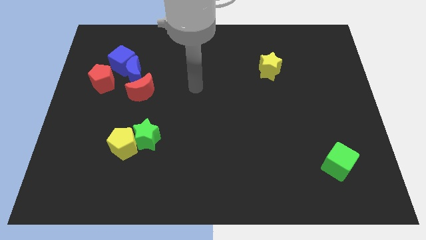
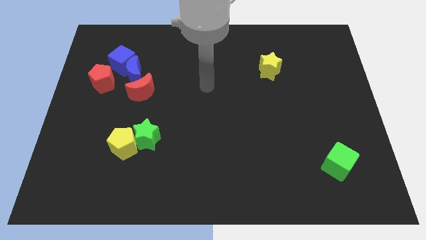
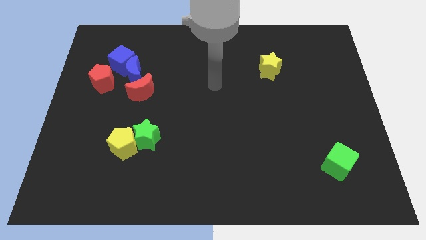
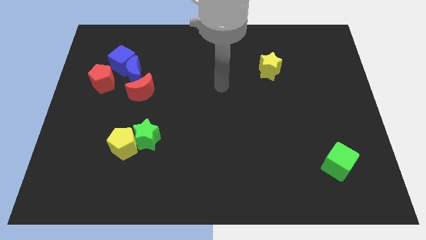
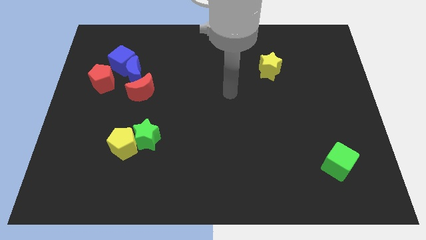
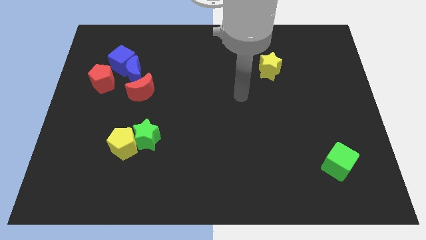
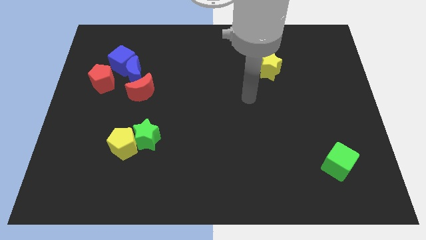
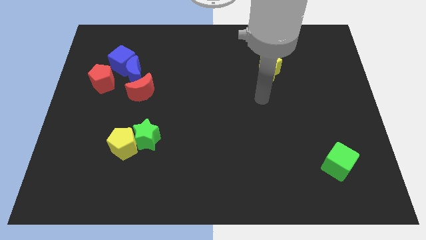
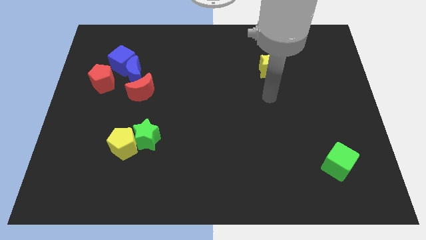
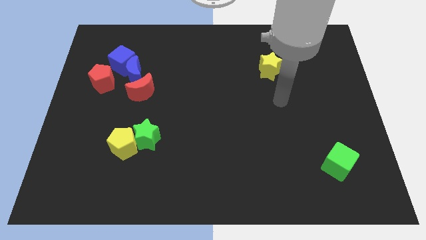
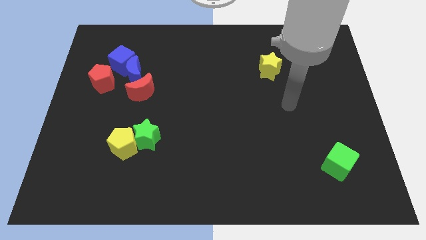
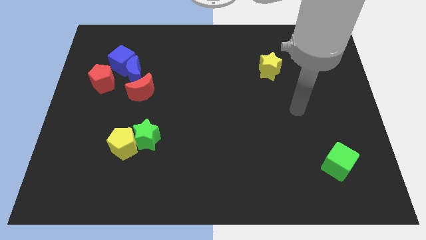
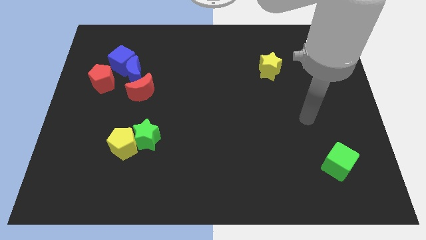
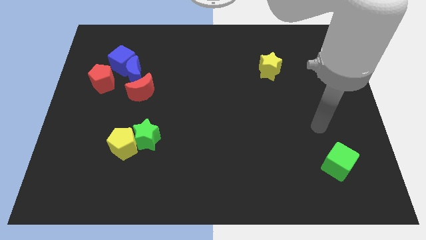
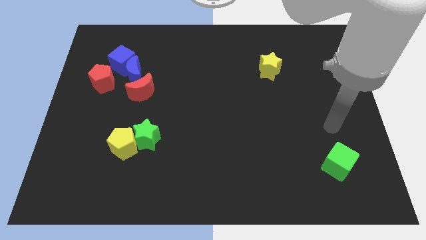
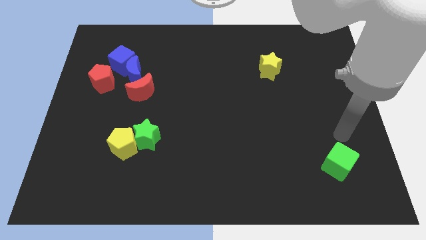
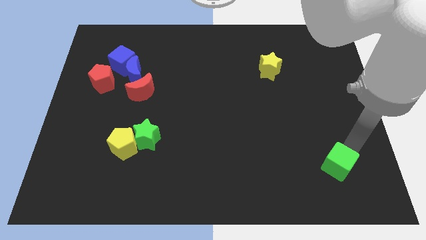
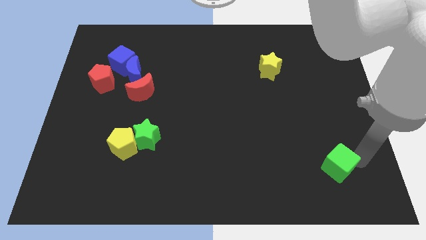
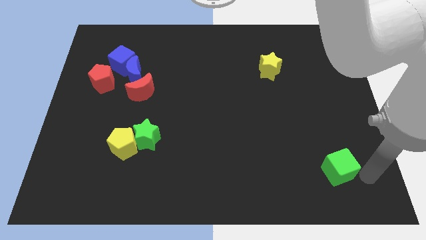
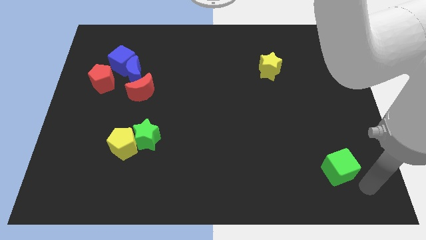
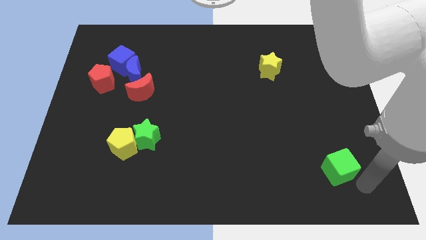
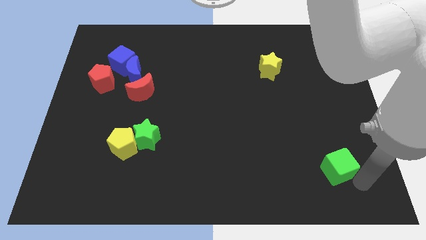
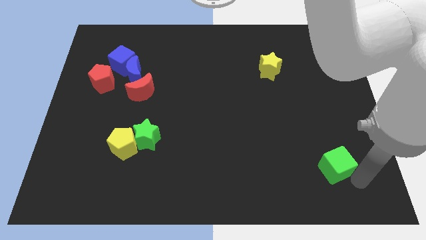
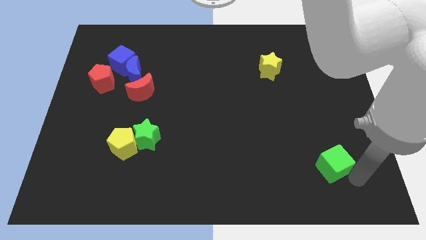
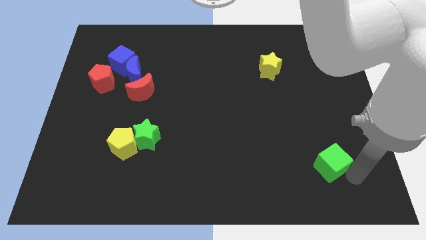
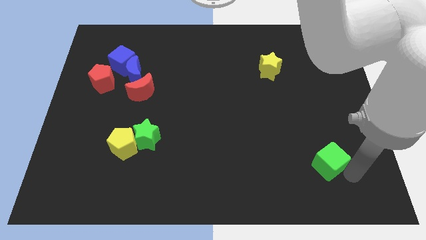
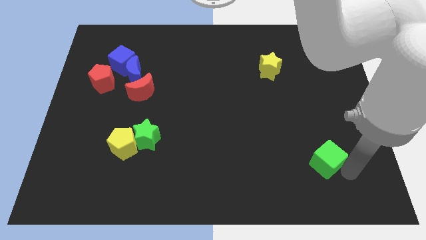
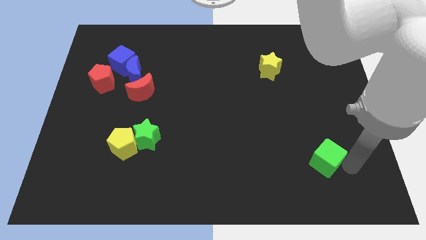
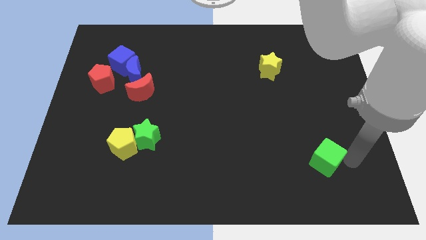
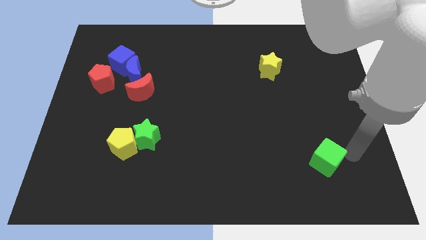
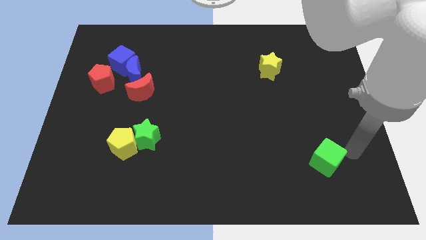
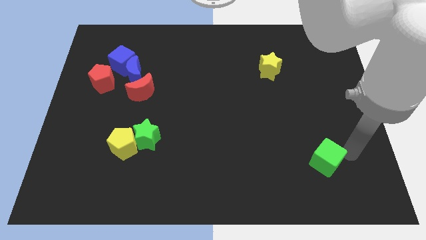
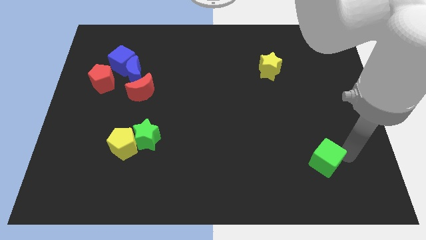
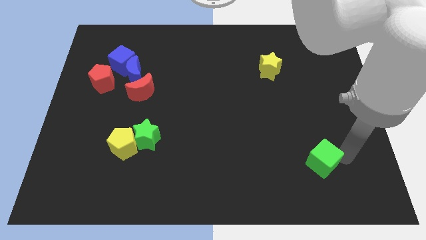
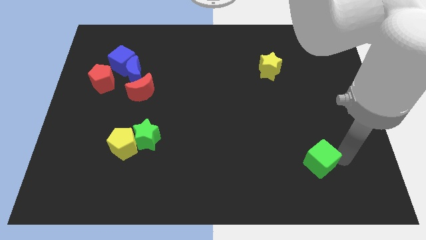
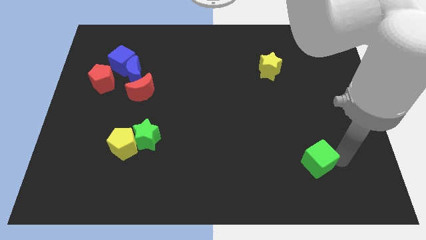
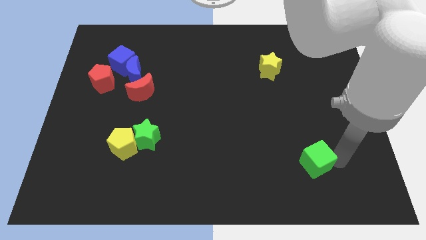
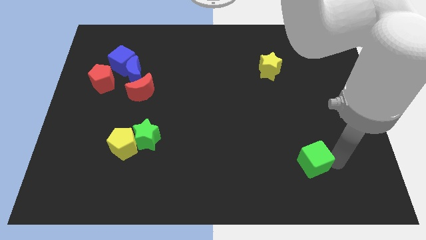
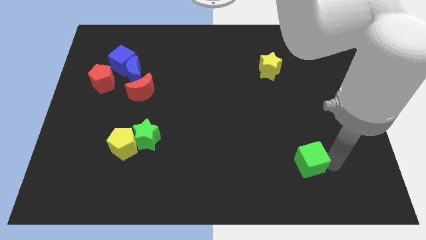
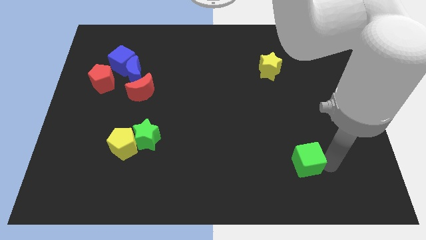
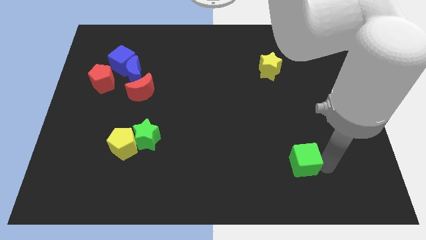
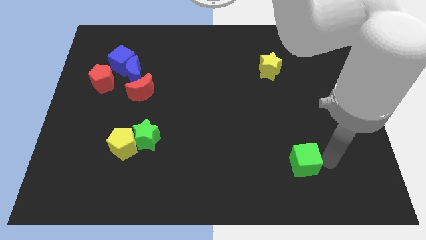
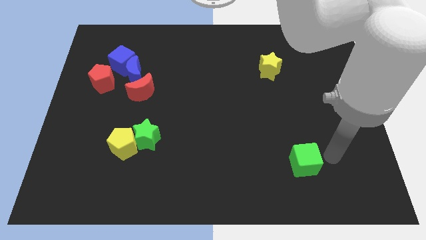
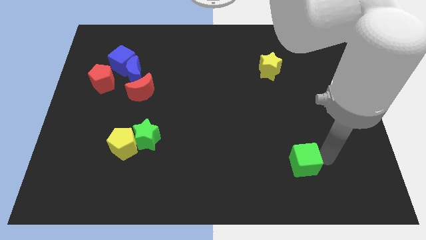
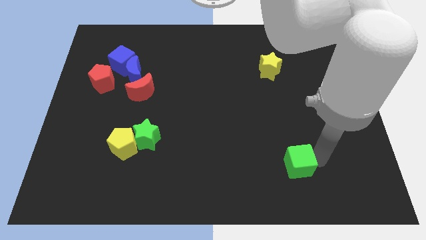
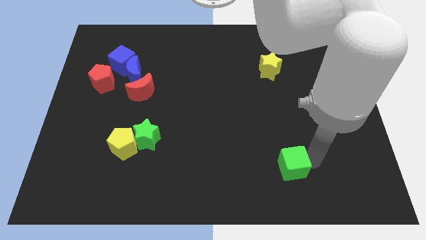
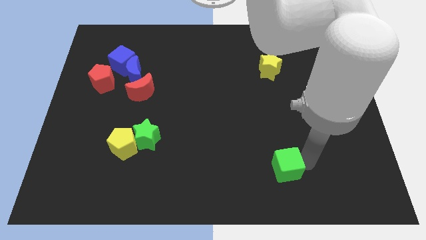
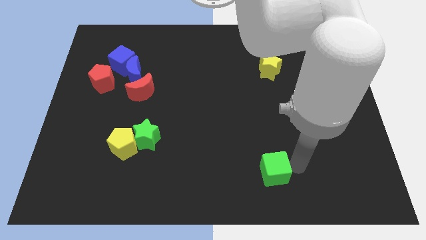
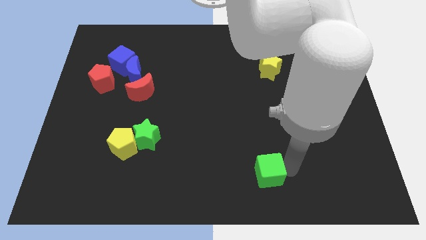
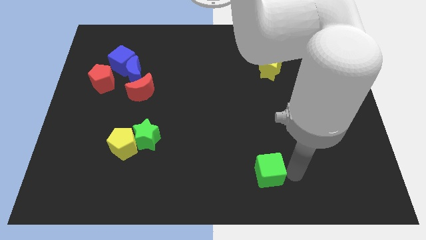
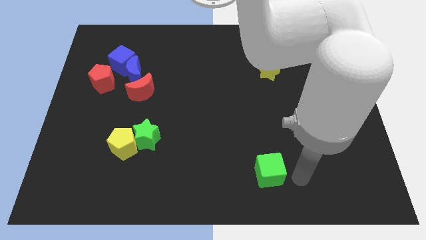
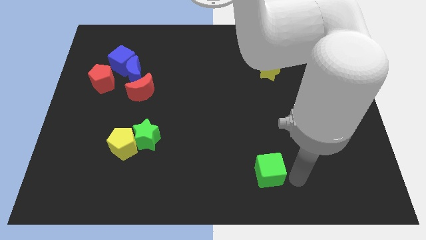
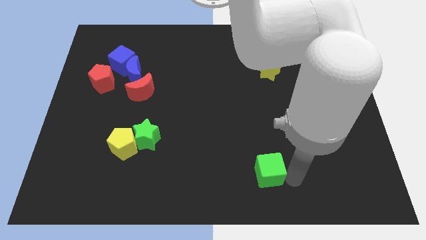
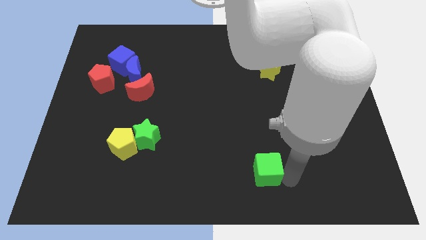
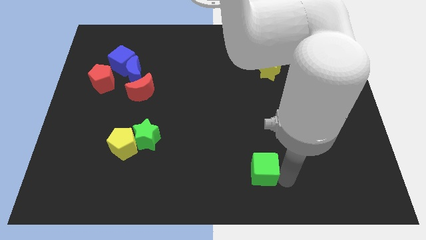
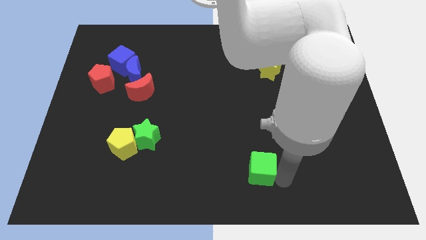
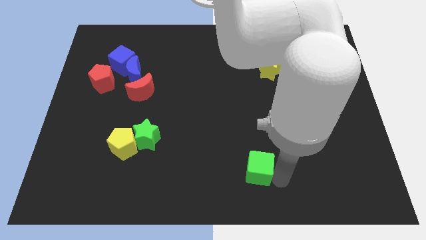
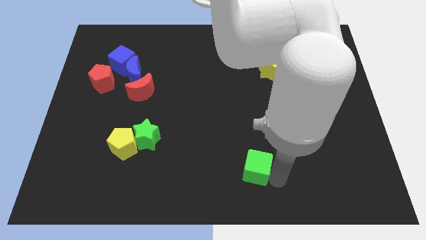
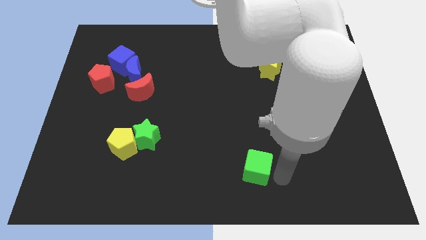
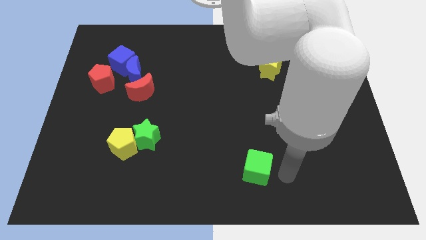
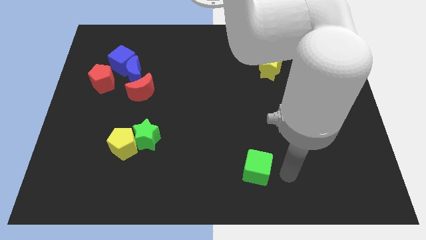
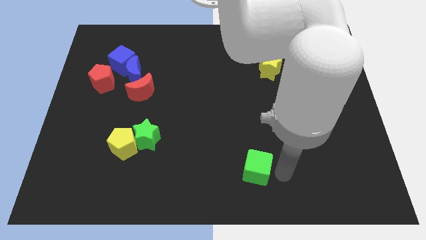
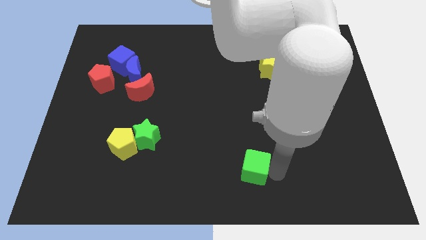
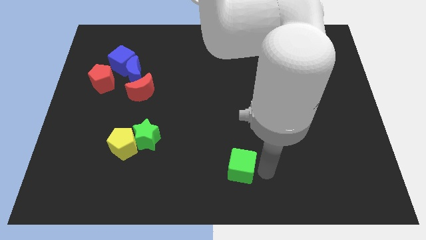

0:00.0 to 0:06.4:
move the green cube to the left

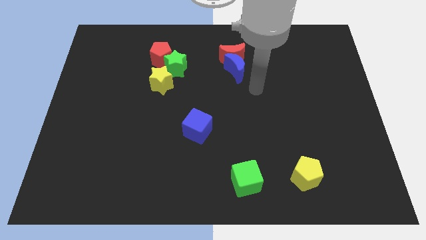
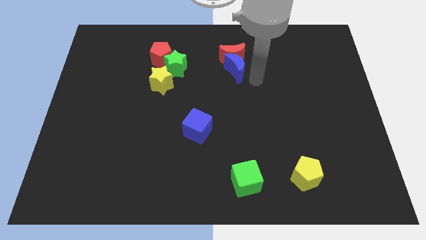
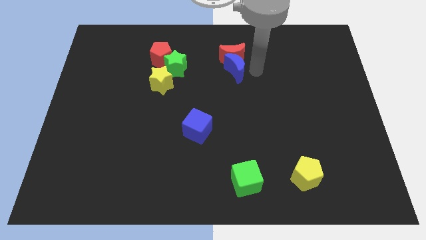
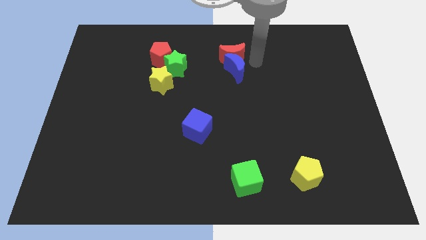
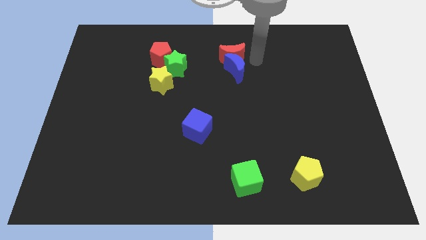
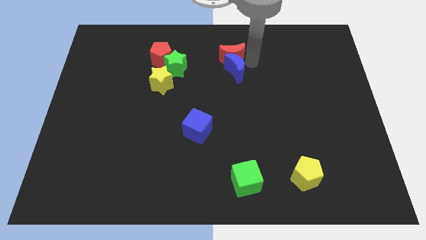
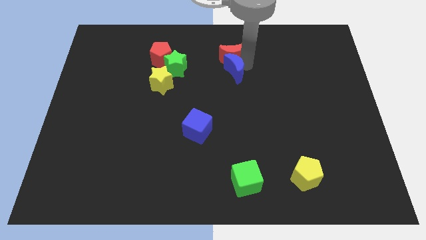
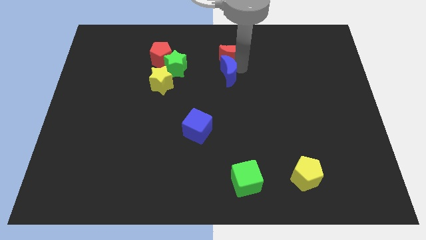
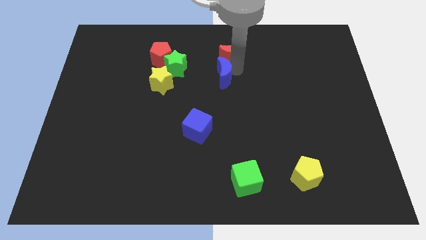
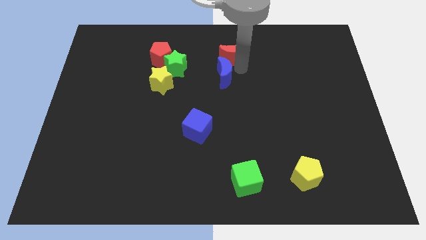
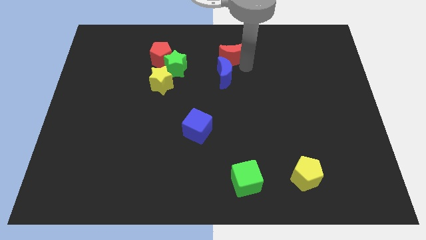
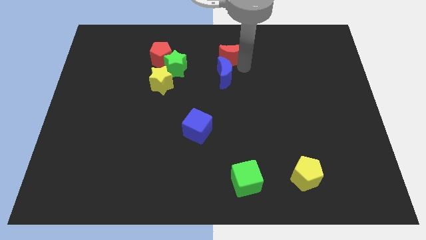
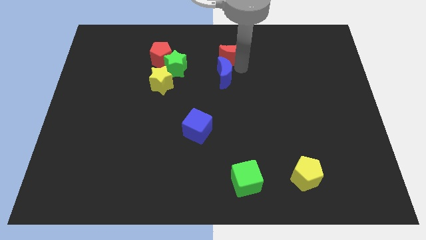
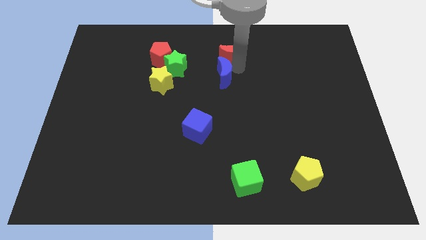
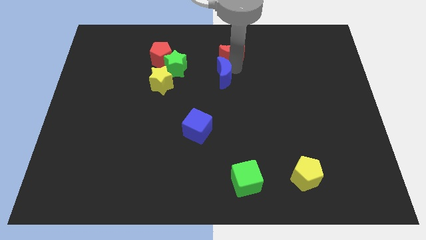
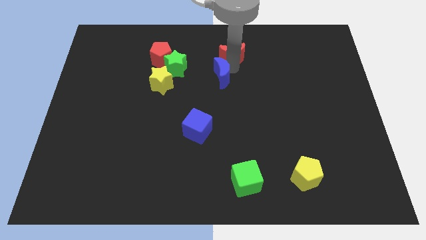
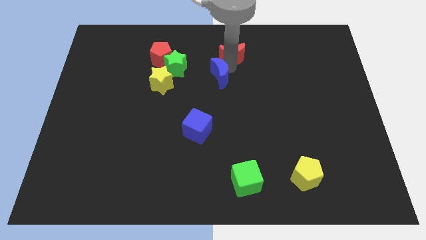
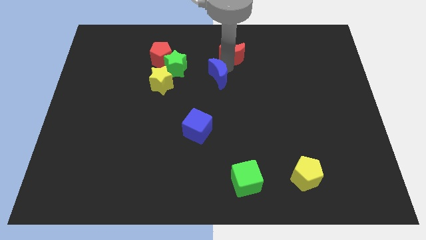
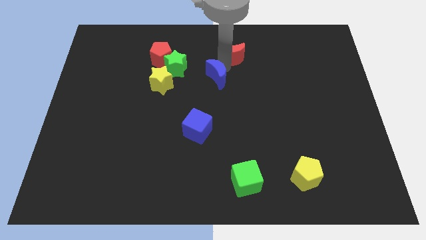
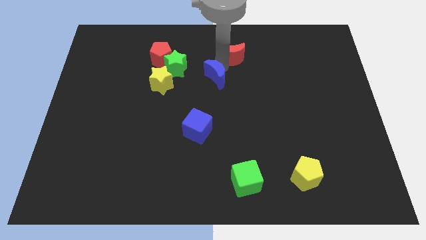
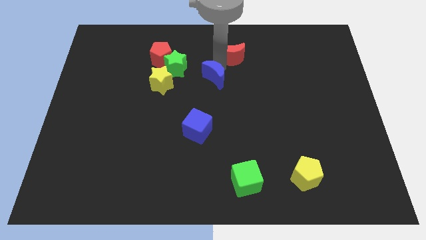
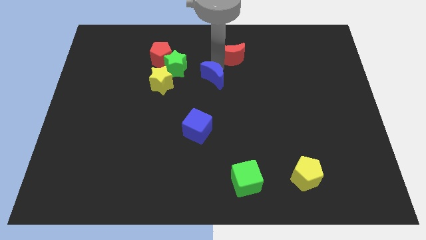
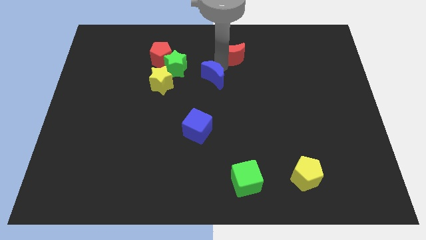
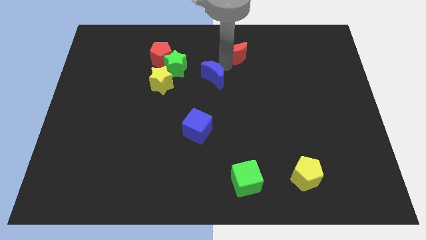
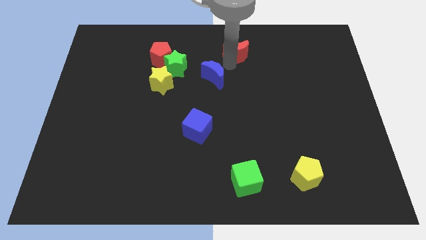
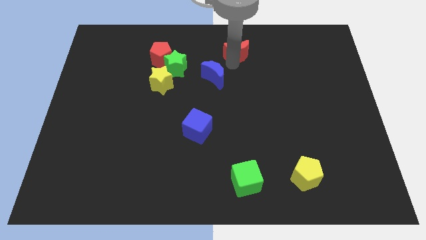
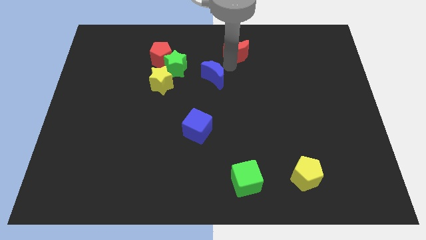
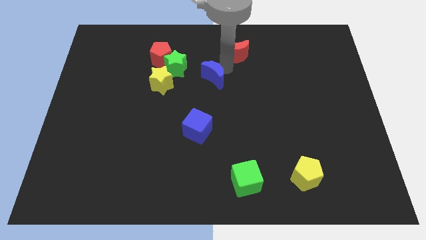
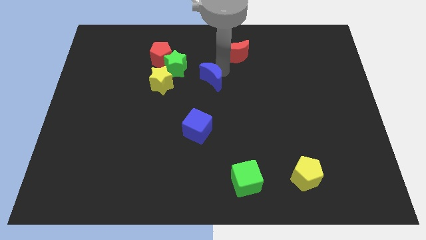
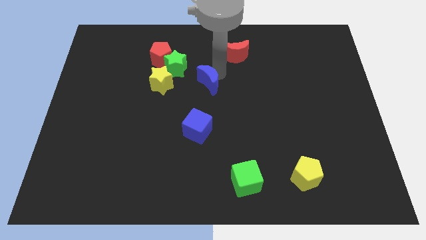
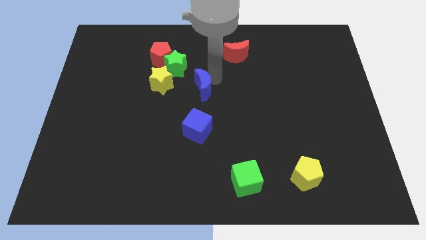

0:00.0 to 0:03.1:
move the blue moon to the left somewhat
